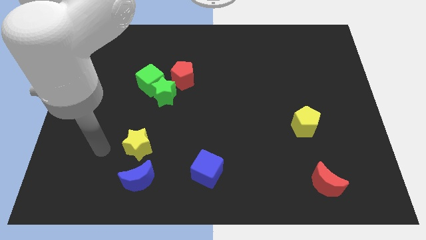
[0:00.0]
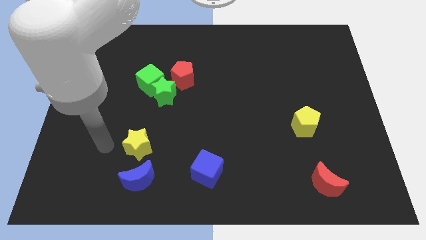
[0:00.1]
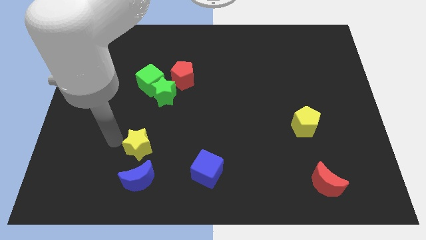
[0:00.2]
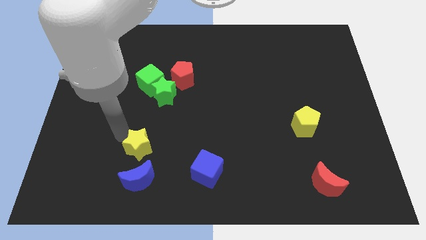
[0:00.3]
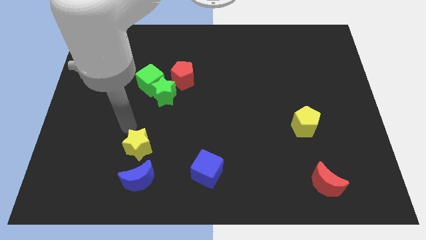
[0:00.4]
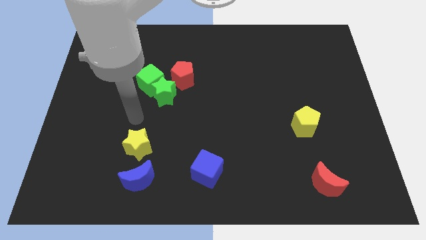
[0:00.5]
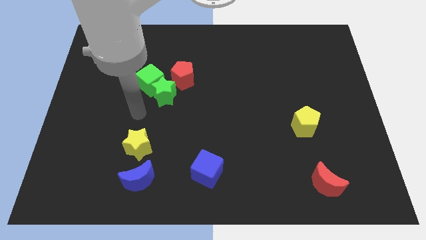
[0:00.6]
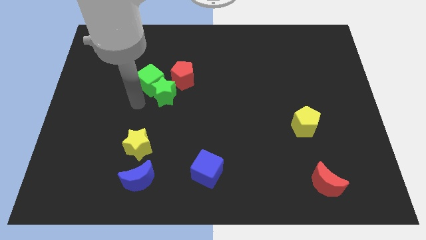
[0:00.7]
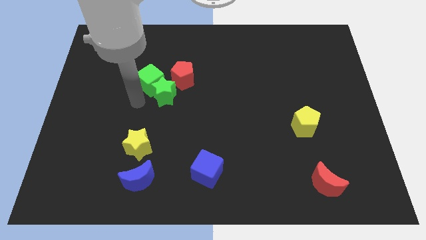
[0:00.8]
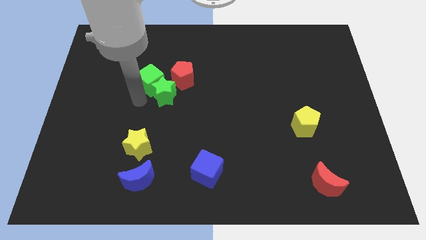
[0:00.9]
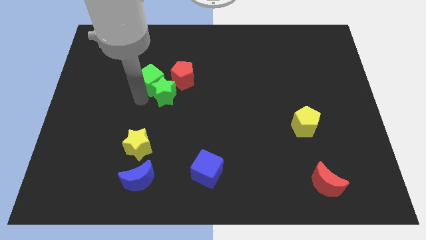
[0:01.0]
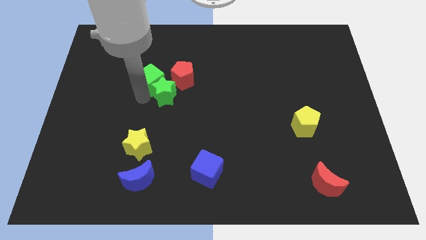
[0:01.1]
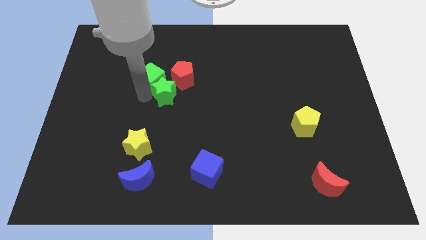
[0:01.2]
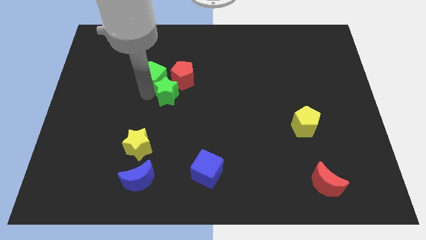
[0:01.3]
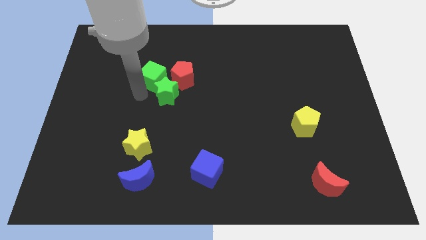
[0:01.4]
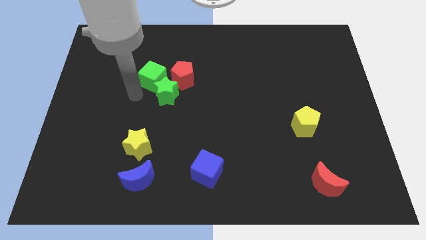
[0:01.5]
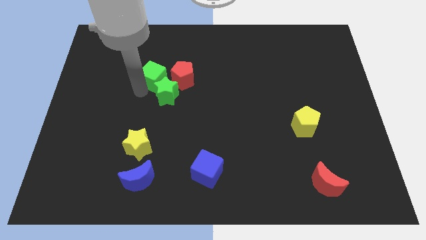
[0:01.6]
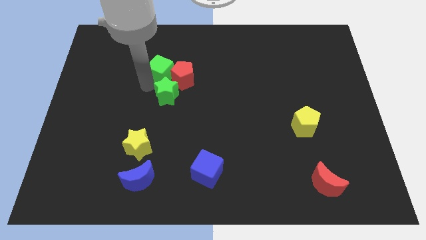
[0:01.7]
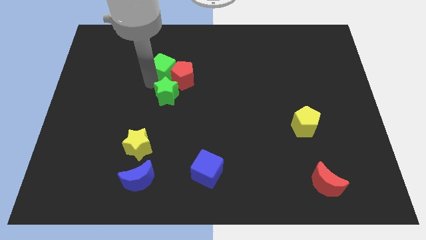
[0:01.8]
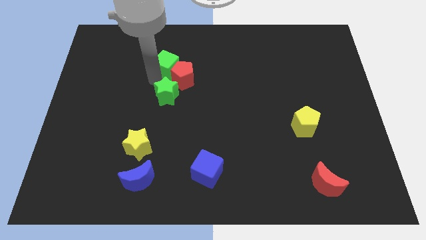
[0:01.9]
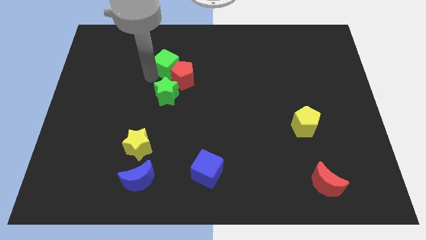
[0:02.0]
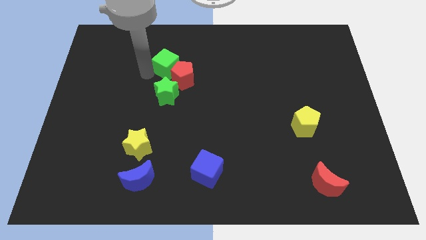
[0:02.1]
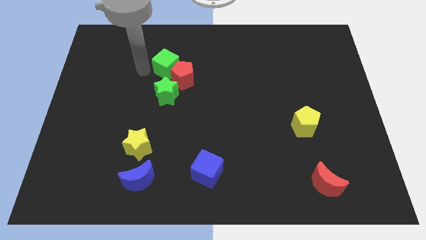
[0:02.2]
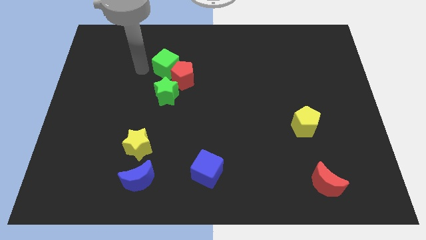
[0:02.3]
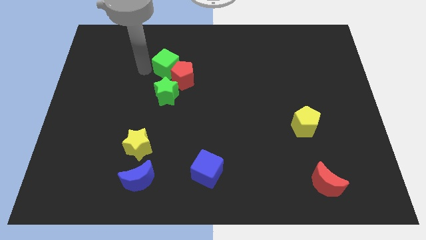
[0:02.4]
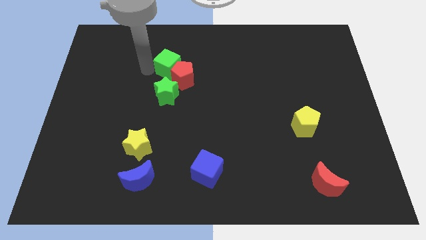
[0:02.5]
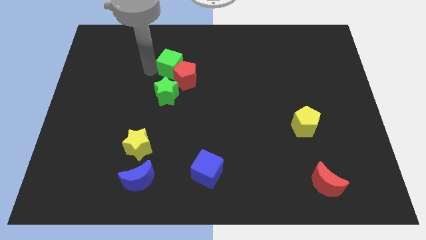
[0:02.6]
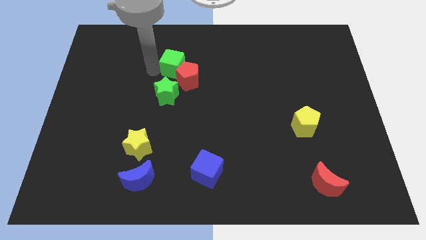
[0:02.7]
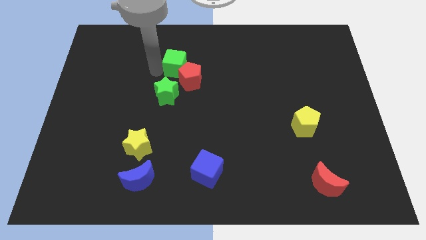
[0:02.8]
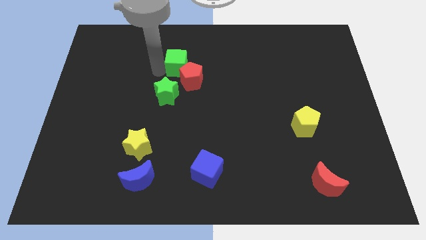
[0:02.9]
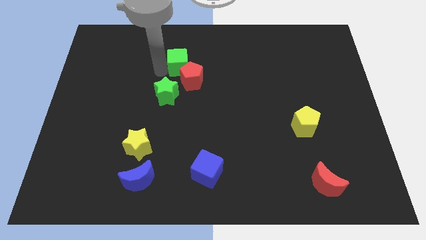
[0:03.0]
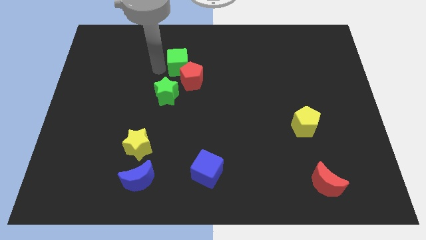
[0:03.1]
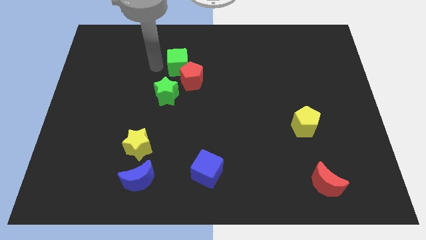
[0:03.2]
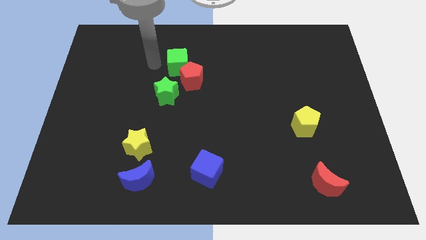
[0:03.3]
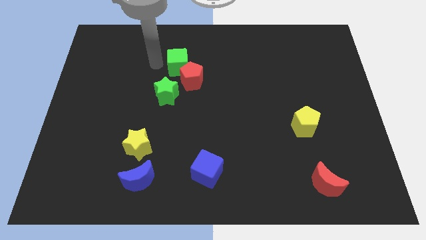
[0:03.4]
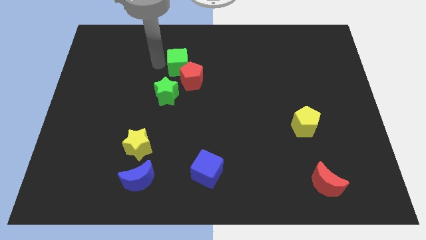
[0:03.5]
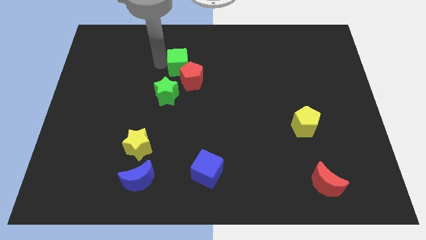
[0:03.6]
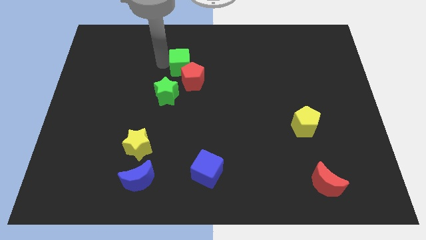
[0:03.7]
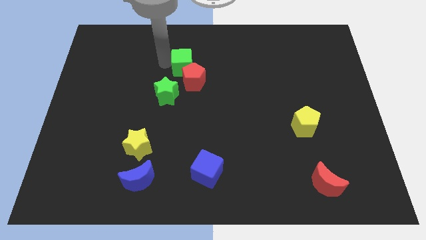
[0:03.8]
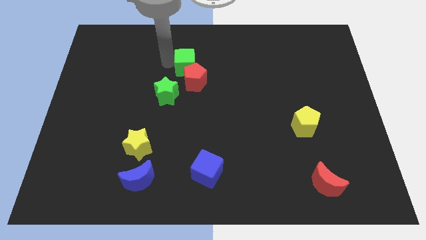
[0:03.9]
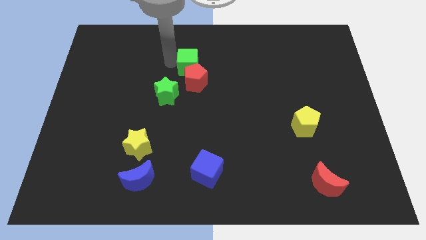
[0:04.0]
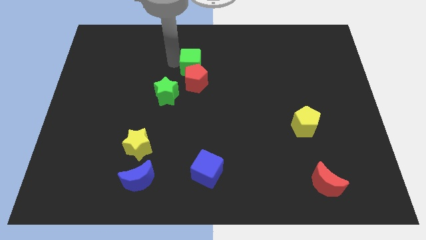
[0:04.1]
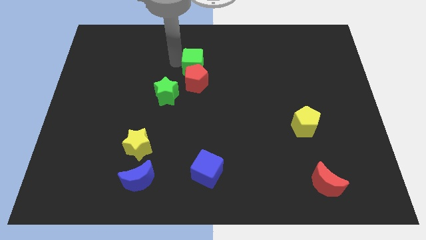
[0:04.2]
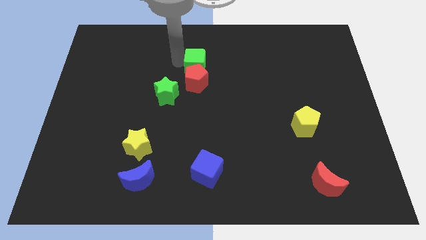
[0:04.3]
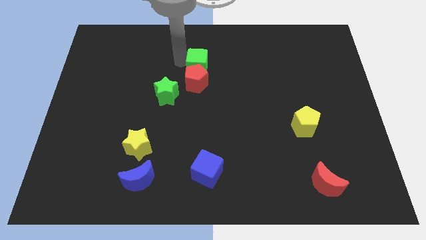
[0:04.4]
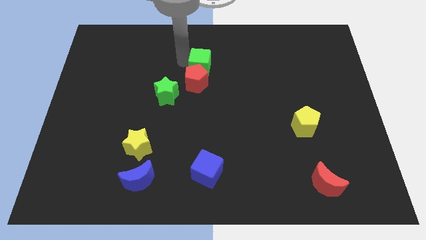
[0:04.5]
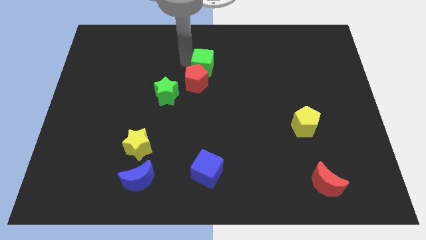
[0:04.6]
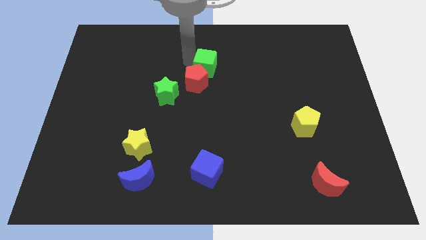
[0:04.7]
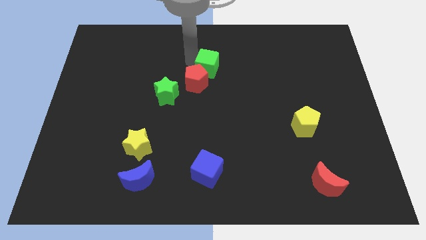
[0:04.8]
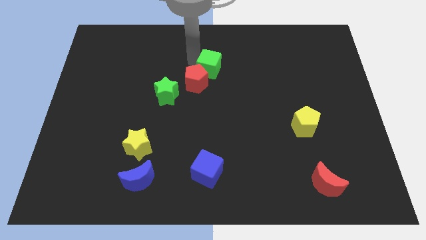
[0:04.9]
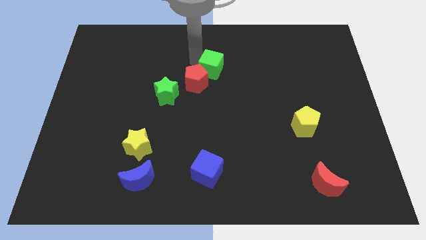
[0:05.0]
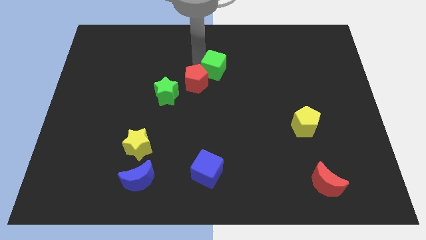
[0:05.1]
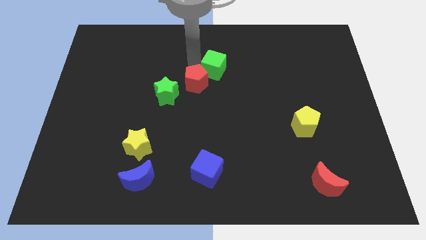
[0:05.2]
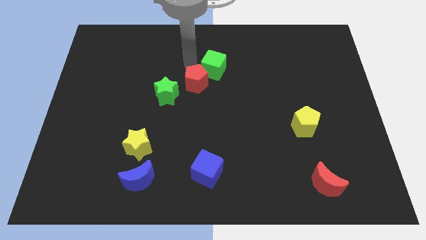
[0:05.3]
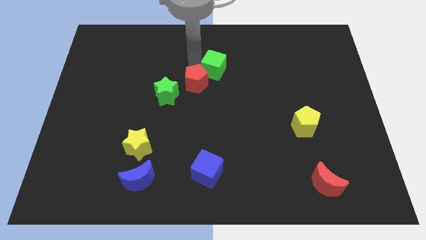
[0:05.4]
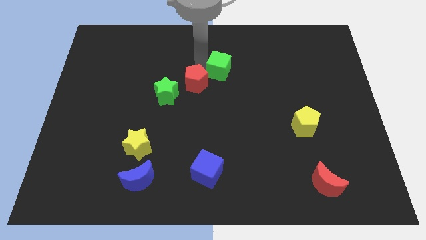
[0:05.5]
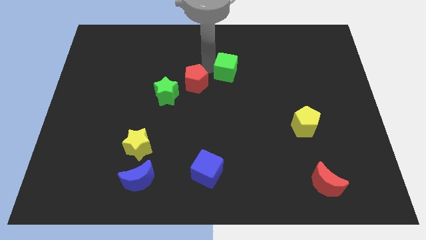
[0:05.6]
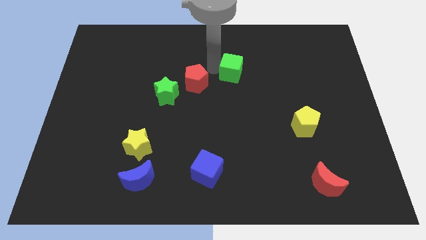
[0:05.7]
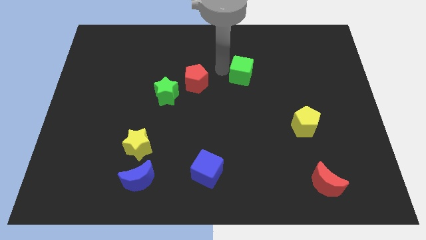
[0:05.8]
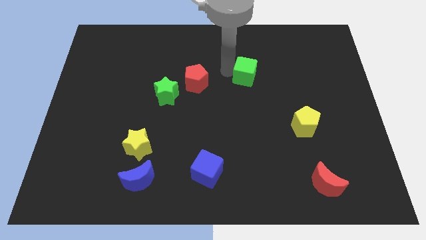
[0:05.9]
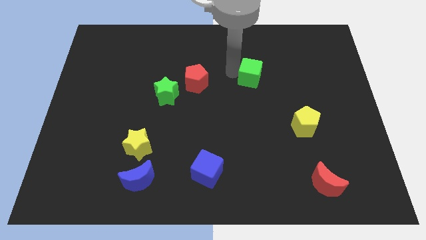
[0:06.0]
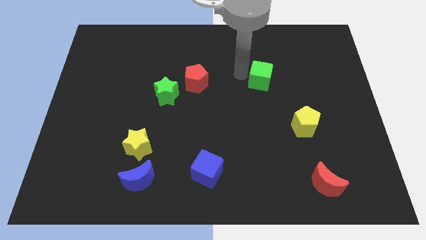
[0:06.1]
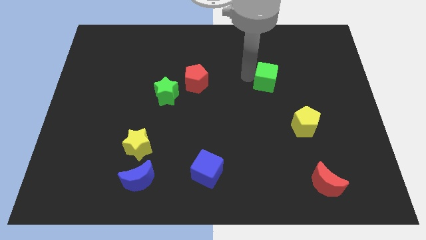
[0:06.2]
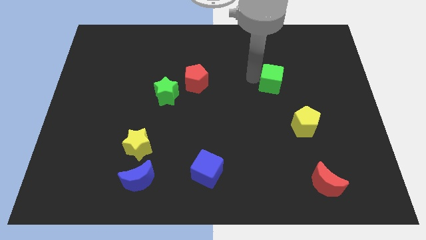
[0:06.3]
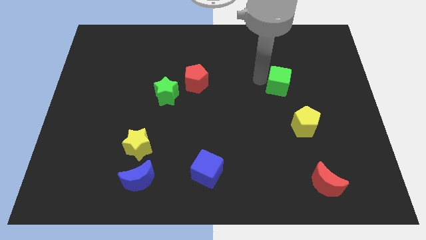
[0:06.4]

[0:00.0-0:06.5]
move the green cube to the top of the yellow pentagon
